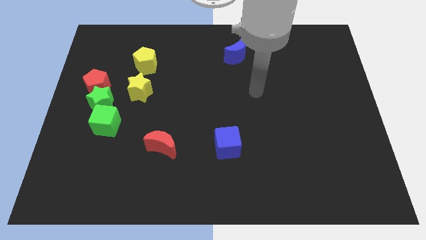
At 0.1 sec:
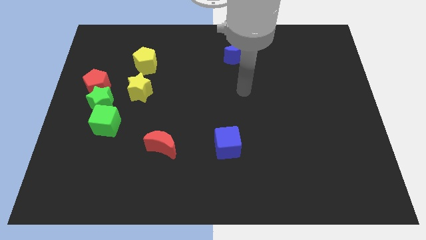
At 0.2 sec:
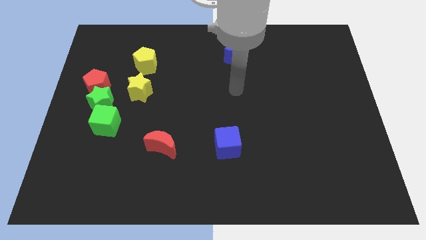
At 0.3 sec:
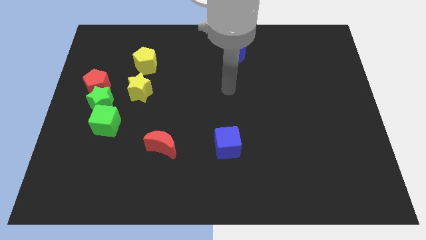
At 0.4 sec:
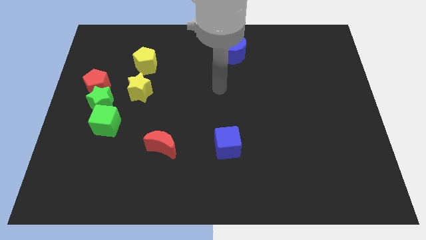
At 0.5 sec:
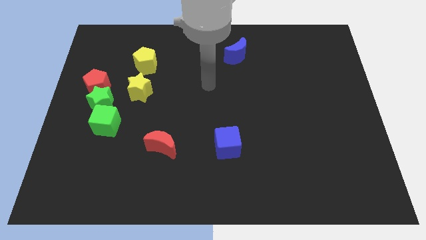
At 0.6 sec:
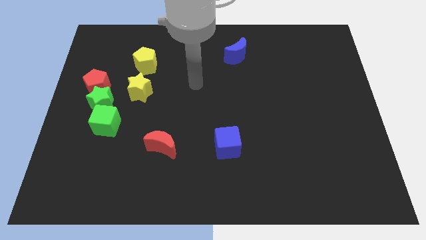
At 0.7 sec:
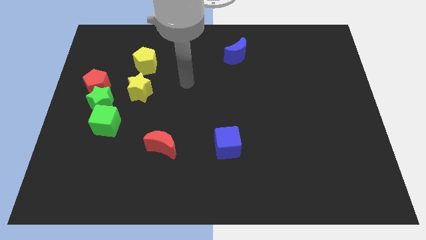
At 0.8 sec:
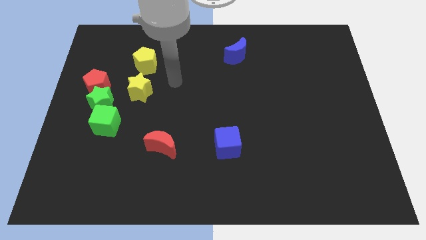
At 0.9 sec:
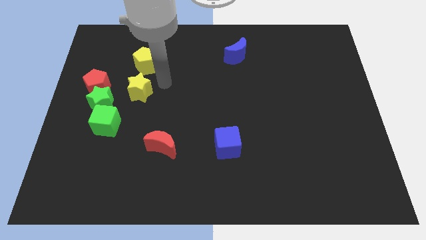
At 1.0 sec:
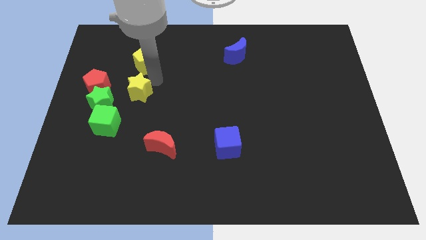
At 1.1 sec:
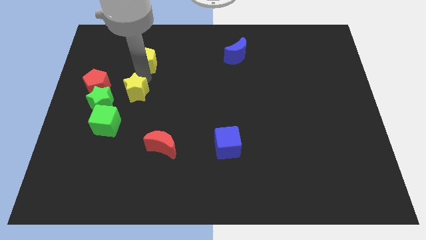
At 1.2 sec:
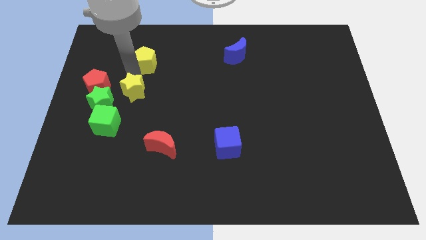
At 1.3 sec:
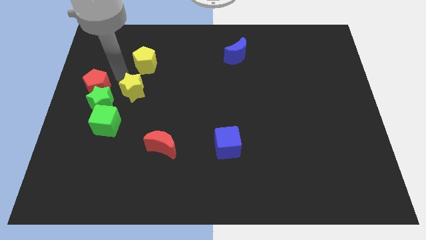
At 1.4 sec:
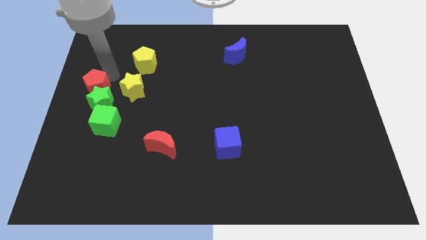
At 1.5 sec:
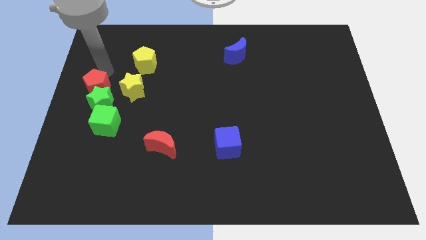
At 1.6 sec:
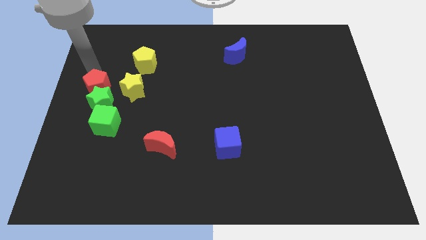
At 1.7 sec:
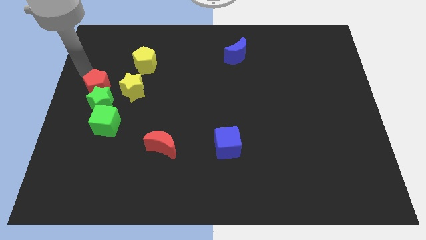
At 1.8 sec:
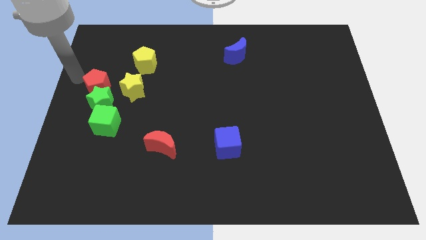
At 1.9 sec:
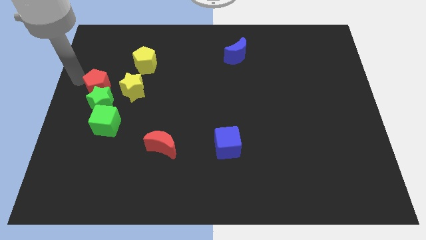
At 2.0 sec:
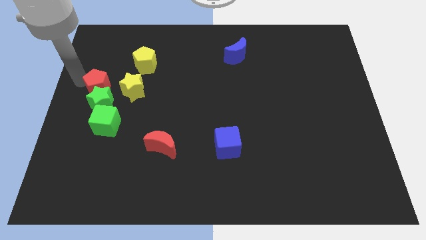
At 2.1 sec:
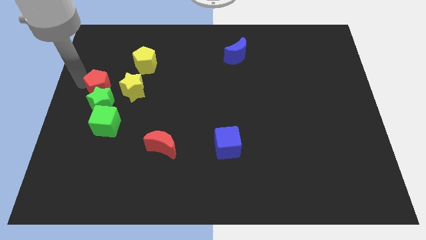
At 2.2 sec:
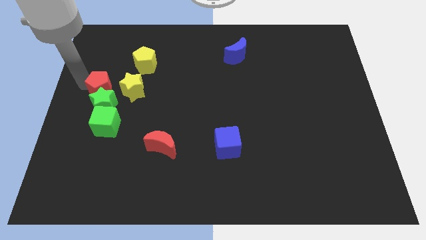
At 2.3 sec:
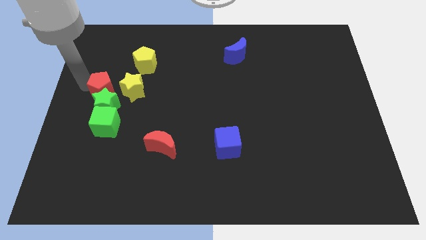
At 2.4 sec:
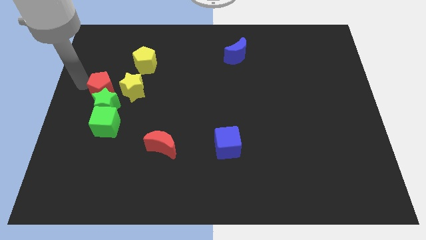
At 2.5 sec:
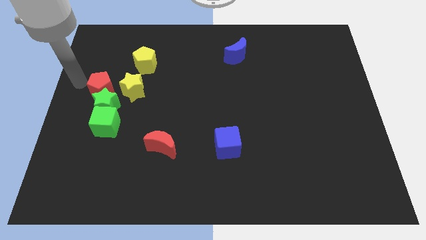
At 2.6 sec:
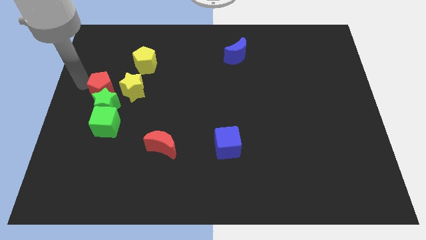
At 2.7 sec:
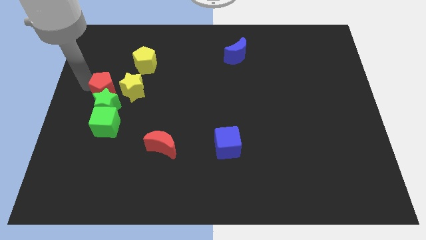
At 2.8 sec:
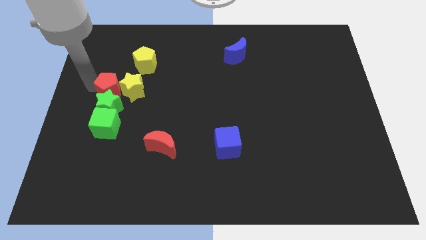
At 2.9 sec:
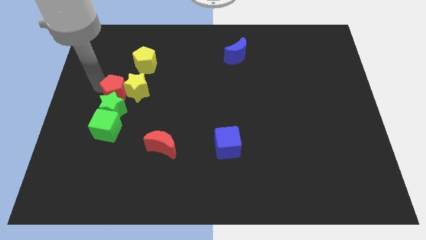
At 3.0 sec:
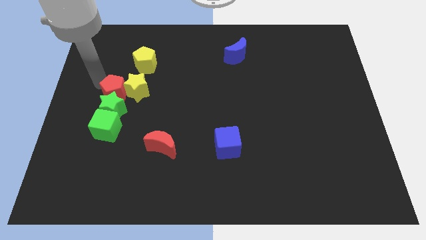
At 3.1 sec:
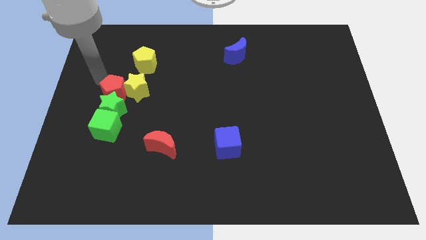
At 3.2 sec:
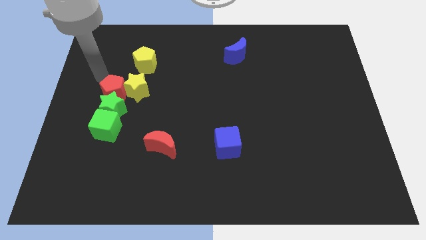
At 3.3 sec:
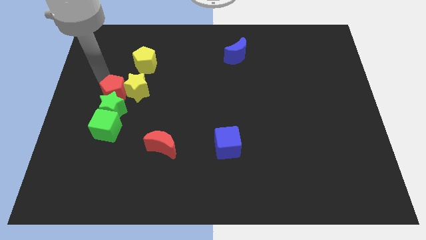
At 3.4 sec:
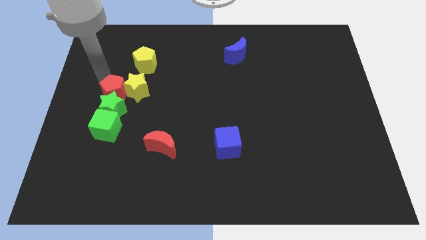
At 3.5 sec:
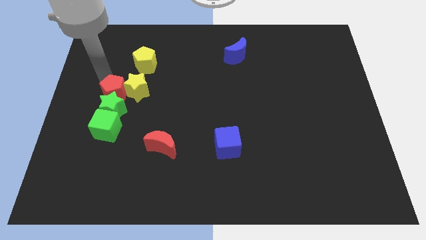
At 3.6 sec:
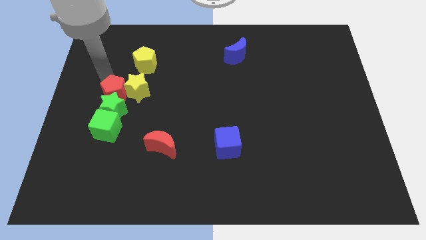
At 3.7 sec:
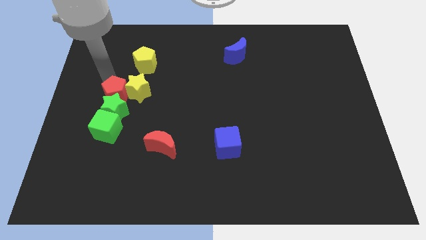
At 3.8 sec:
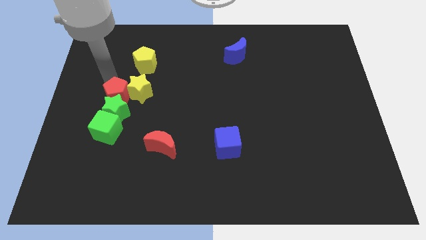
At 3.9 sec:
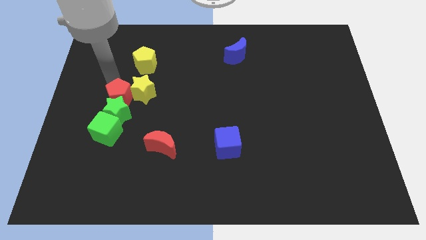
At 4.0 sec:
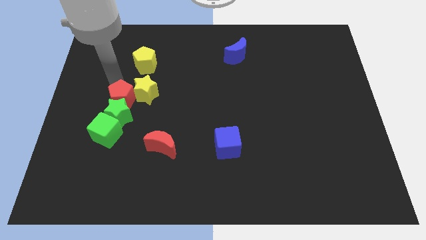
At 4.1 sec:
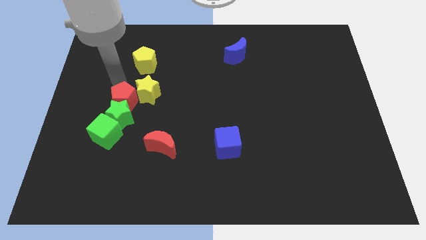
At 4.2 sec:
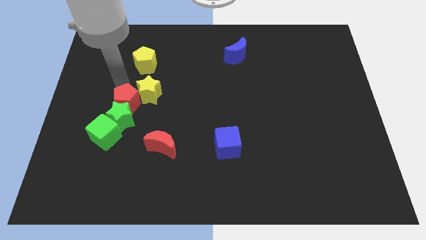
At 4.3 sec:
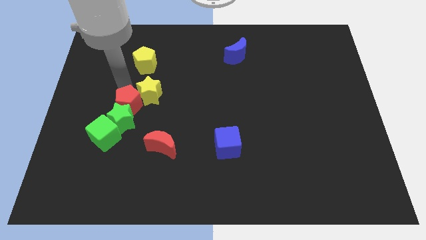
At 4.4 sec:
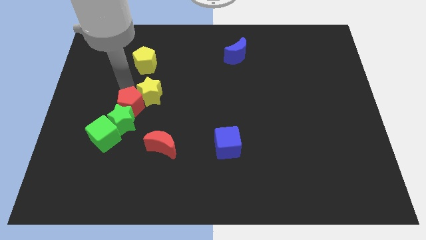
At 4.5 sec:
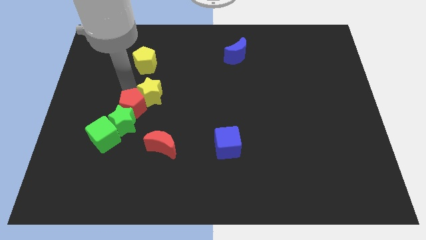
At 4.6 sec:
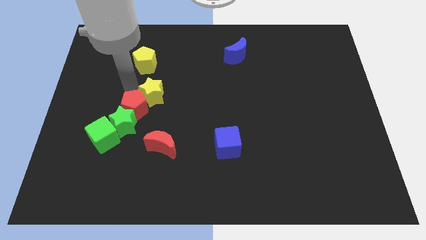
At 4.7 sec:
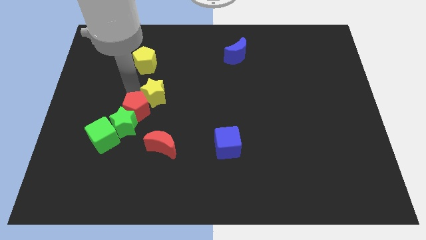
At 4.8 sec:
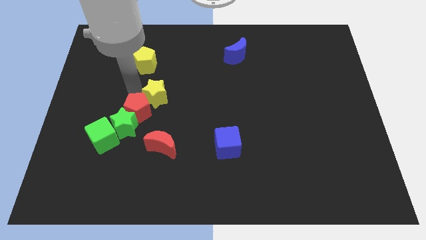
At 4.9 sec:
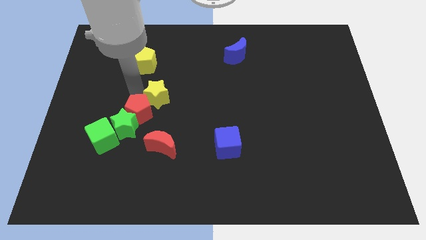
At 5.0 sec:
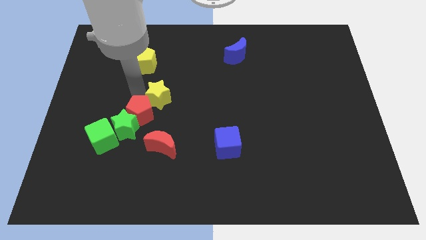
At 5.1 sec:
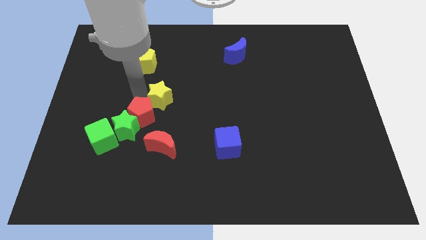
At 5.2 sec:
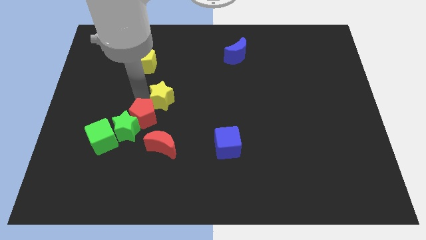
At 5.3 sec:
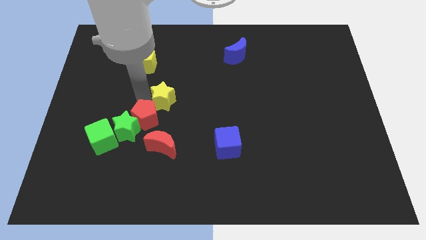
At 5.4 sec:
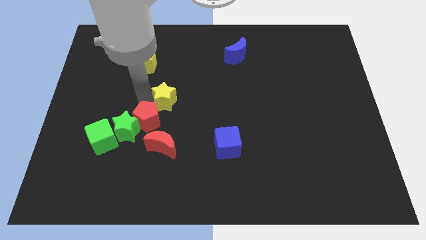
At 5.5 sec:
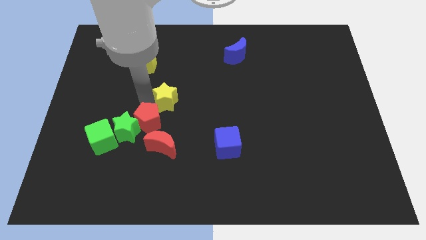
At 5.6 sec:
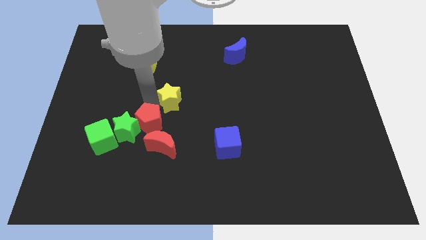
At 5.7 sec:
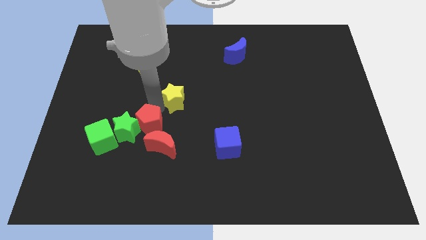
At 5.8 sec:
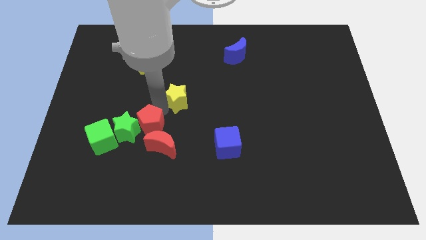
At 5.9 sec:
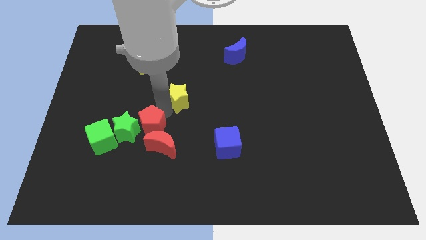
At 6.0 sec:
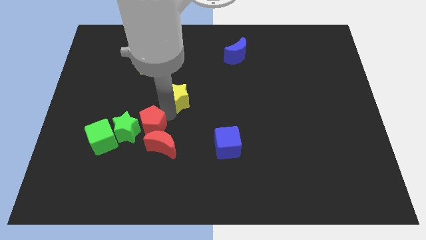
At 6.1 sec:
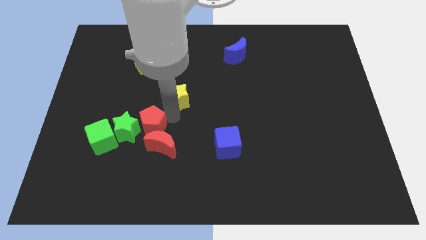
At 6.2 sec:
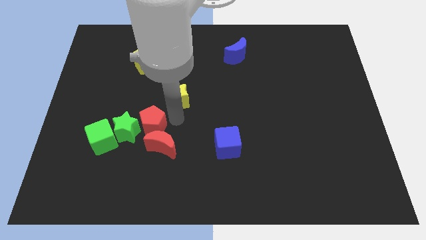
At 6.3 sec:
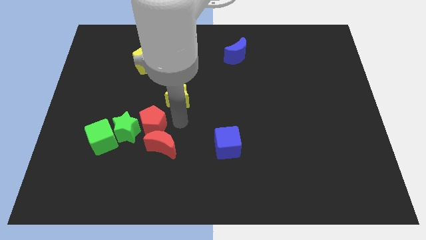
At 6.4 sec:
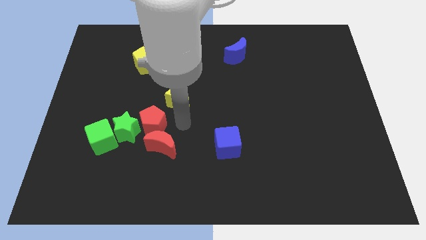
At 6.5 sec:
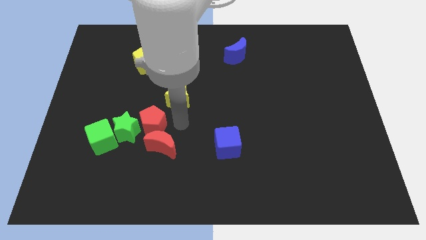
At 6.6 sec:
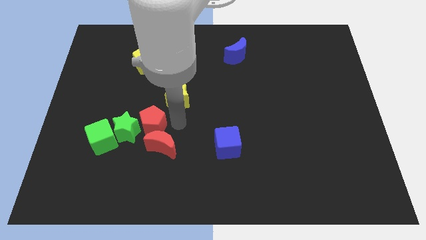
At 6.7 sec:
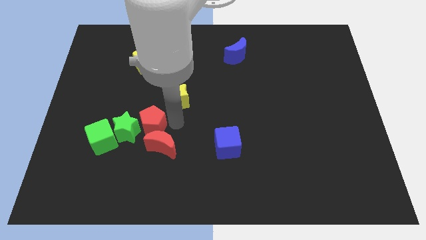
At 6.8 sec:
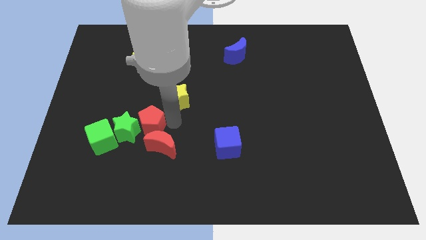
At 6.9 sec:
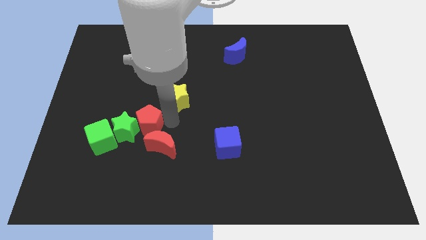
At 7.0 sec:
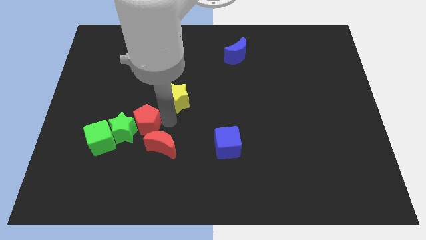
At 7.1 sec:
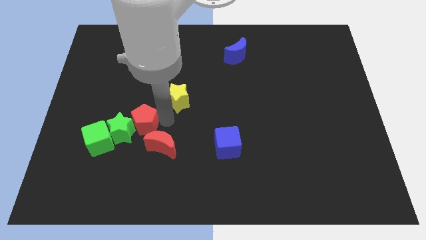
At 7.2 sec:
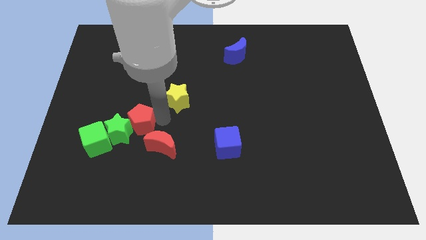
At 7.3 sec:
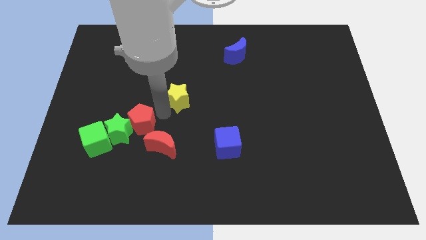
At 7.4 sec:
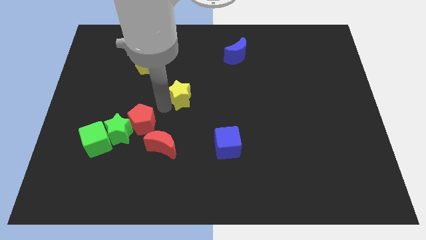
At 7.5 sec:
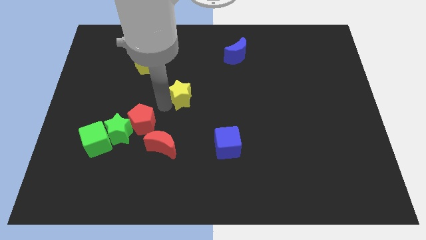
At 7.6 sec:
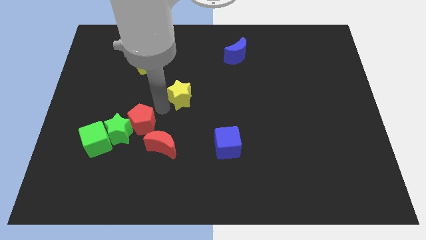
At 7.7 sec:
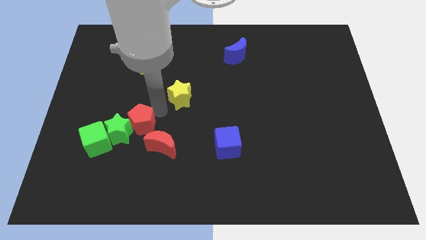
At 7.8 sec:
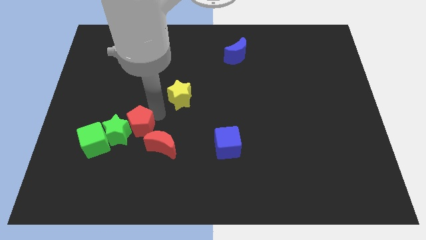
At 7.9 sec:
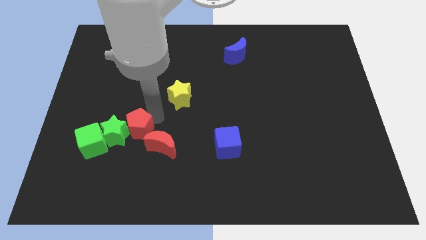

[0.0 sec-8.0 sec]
put the red pentagon just left of the red moon
